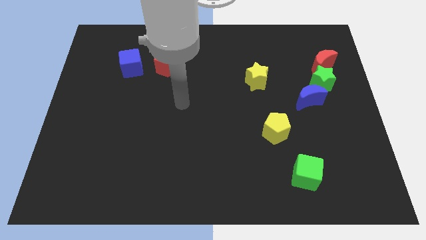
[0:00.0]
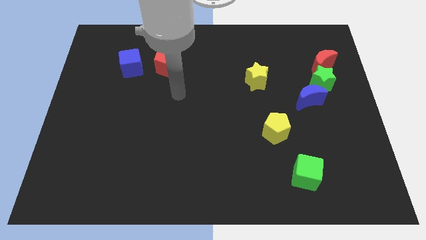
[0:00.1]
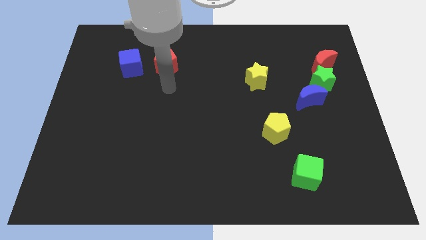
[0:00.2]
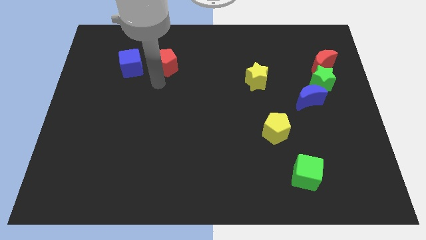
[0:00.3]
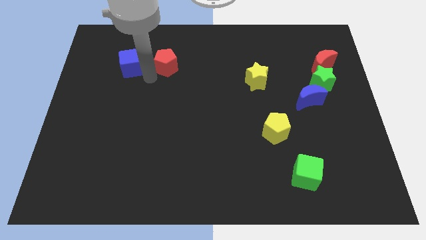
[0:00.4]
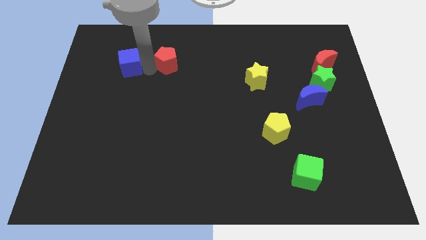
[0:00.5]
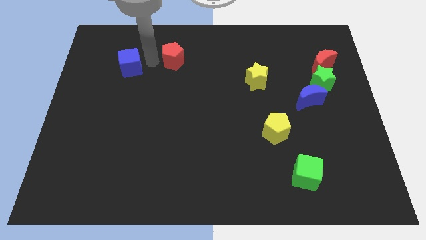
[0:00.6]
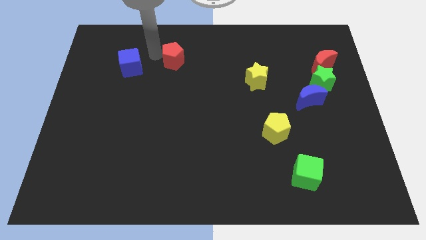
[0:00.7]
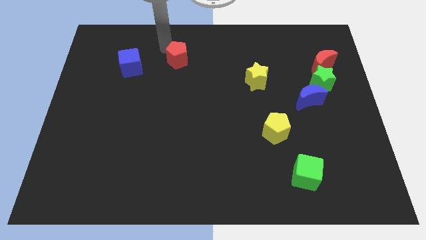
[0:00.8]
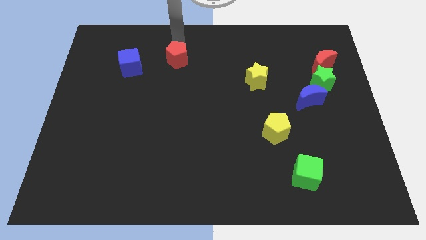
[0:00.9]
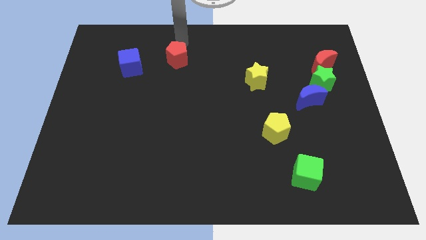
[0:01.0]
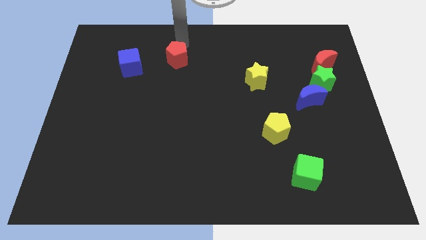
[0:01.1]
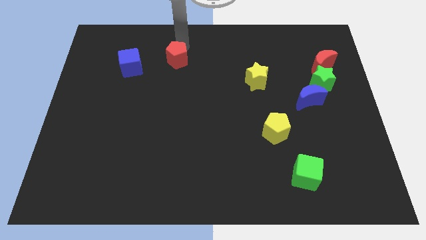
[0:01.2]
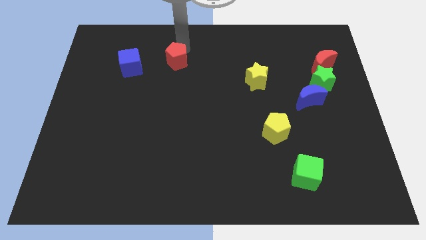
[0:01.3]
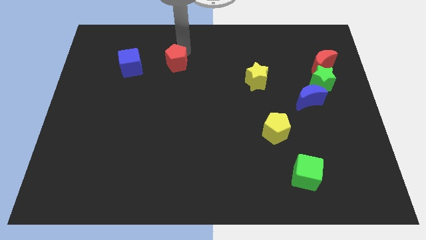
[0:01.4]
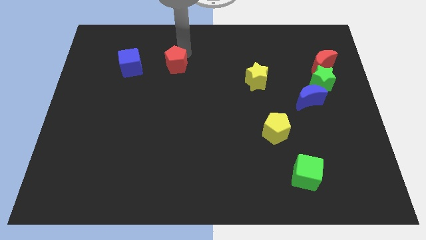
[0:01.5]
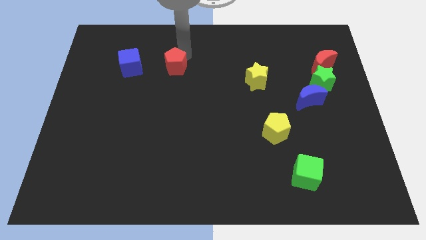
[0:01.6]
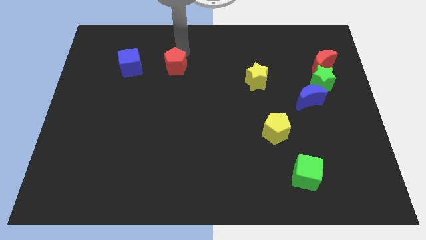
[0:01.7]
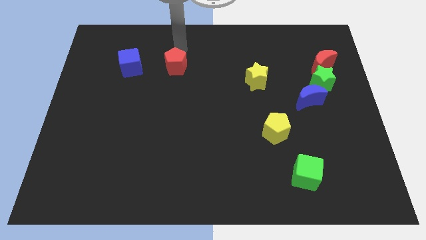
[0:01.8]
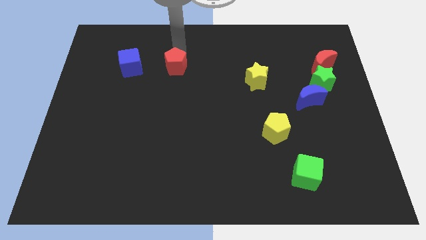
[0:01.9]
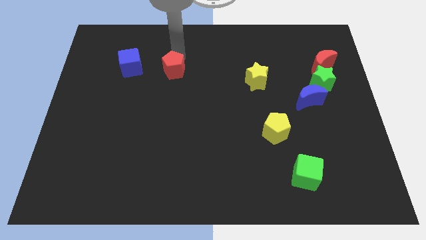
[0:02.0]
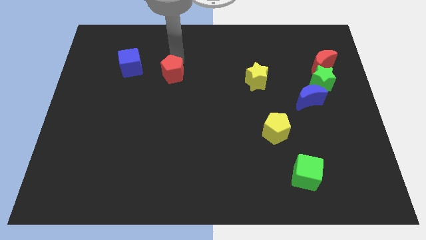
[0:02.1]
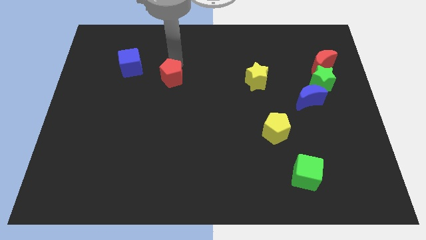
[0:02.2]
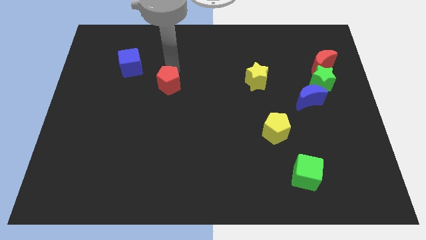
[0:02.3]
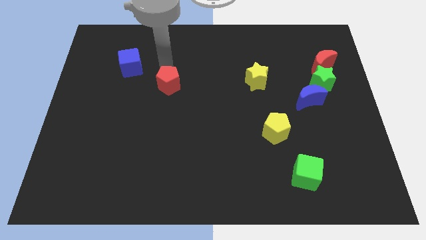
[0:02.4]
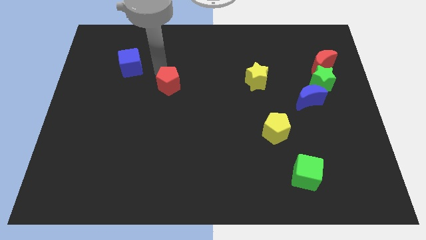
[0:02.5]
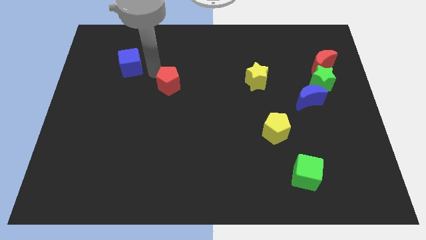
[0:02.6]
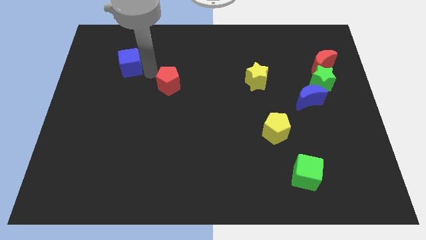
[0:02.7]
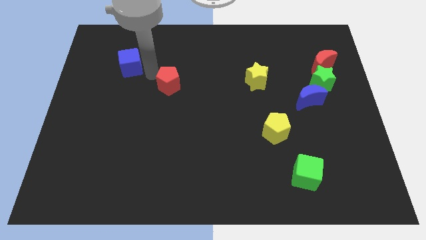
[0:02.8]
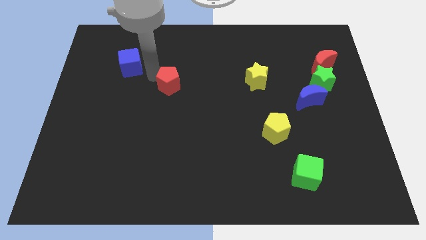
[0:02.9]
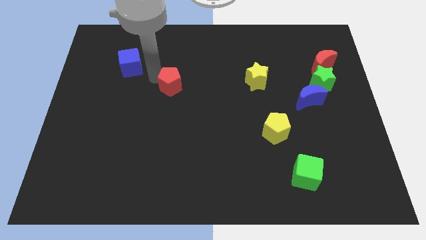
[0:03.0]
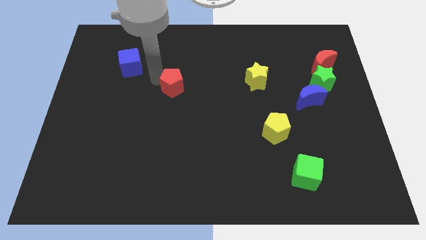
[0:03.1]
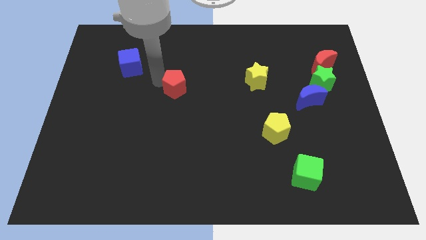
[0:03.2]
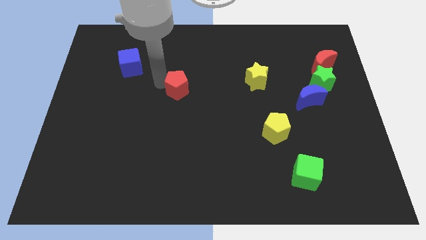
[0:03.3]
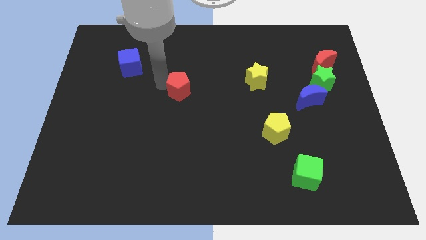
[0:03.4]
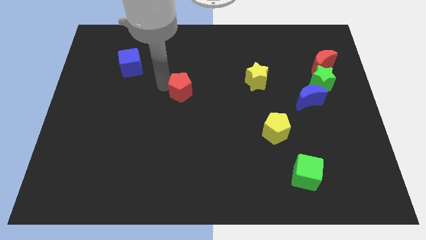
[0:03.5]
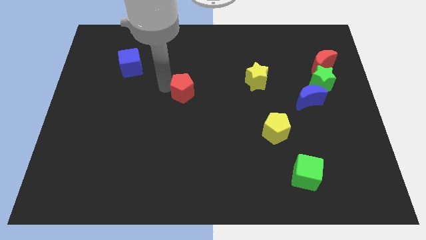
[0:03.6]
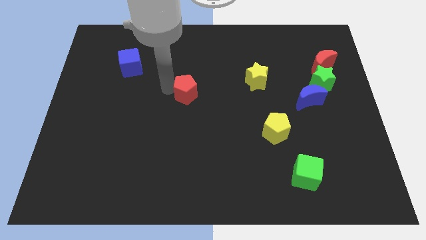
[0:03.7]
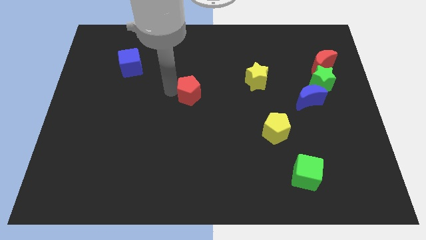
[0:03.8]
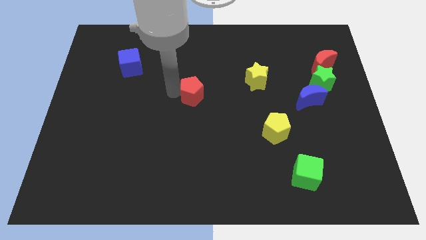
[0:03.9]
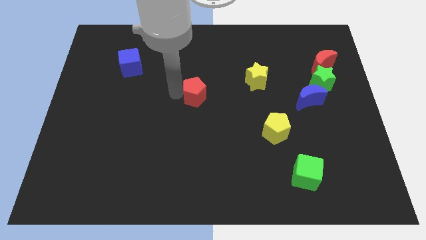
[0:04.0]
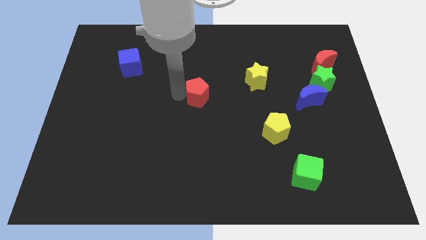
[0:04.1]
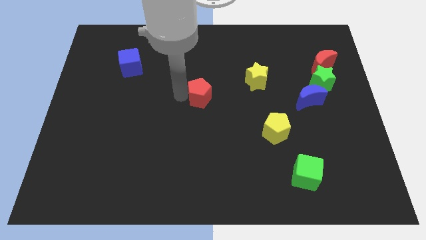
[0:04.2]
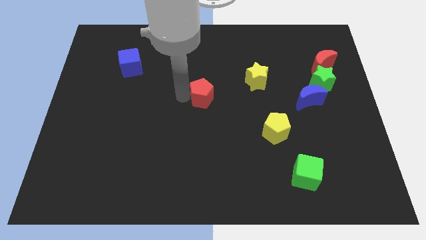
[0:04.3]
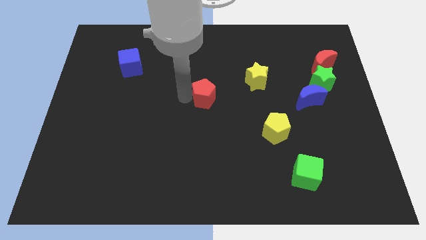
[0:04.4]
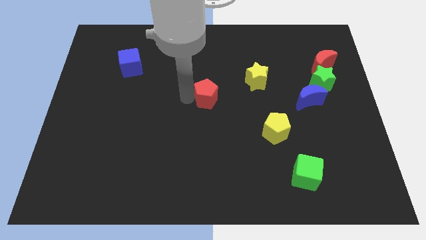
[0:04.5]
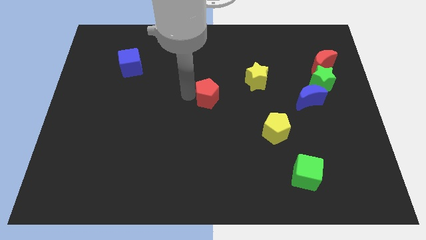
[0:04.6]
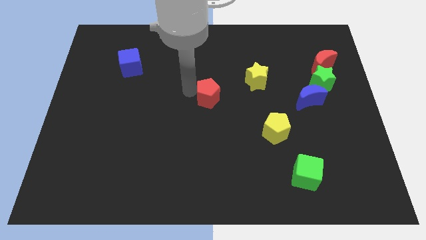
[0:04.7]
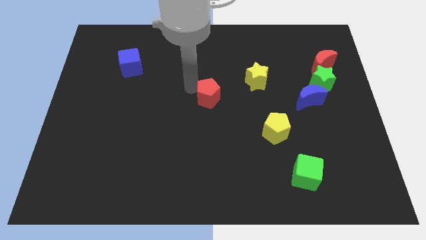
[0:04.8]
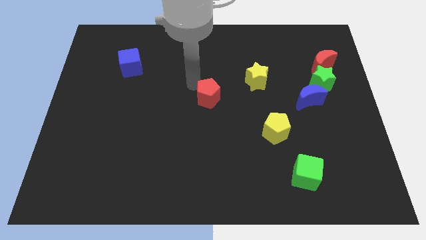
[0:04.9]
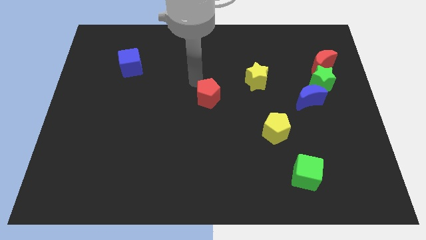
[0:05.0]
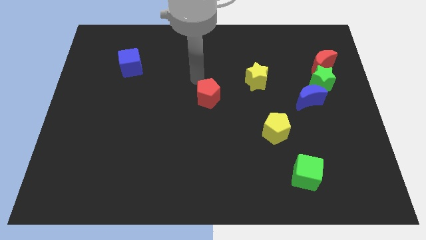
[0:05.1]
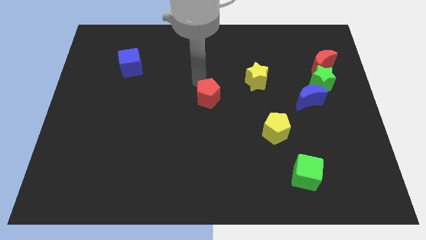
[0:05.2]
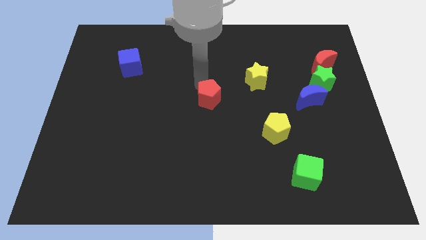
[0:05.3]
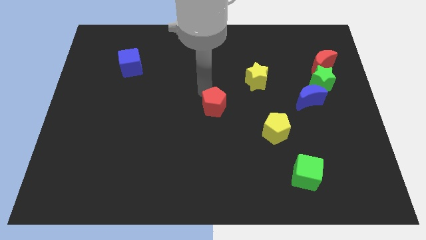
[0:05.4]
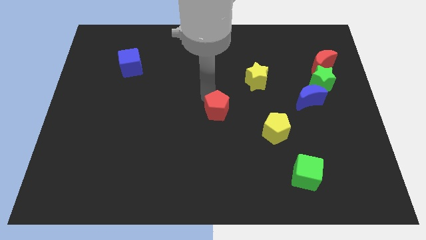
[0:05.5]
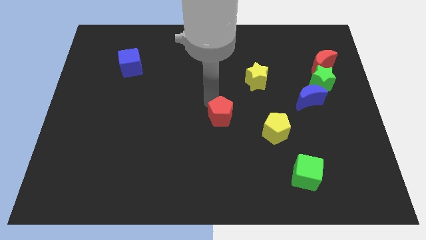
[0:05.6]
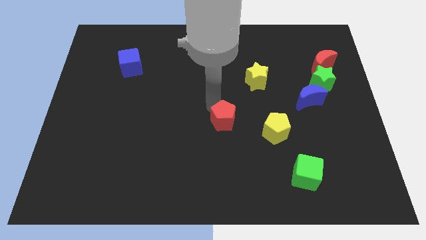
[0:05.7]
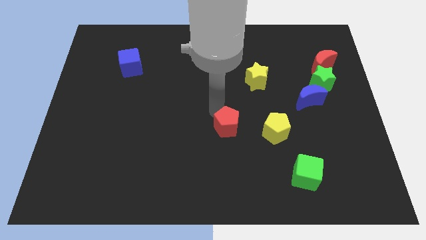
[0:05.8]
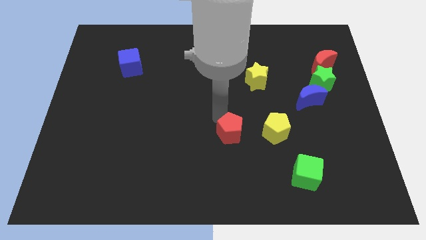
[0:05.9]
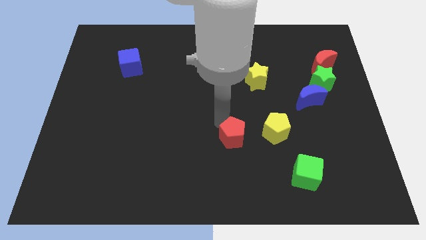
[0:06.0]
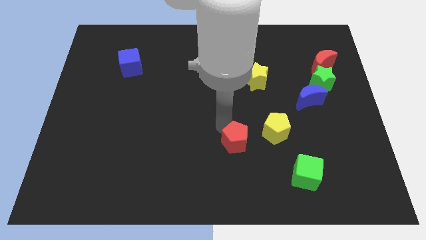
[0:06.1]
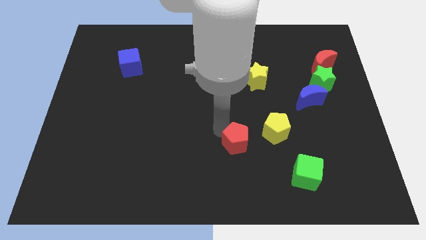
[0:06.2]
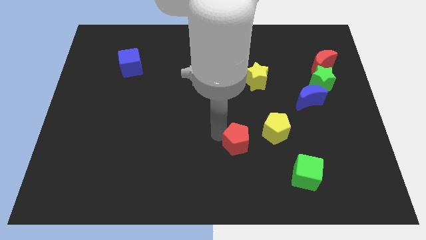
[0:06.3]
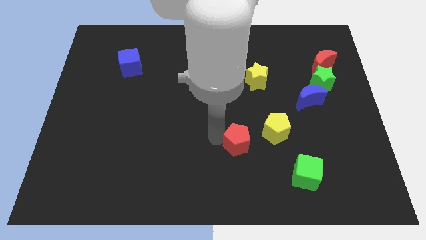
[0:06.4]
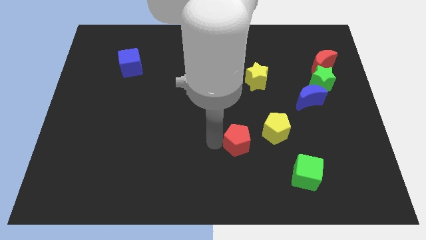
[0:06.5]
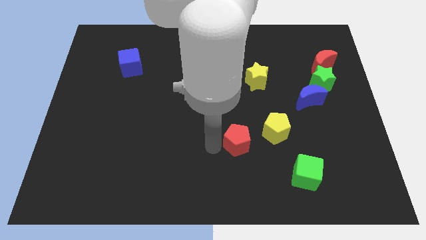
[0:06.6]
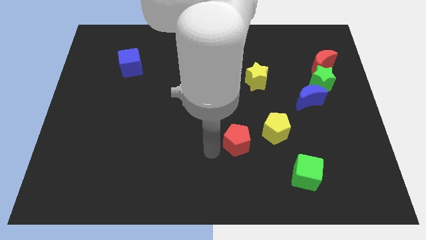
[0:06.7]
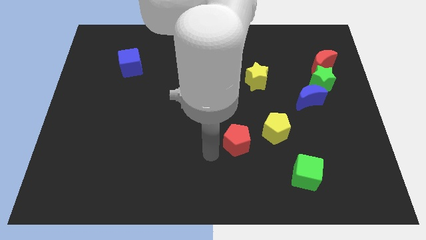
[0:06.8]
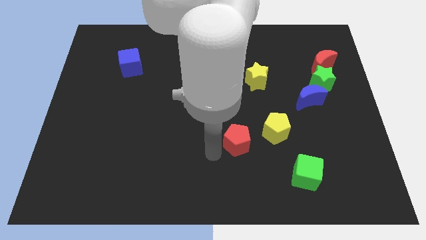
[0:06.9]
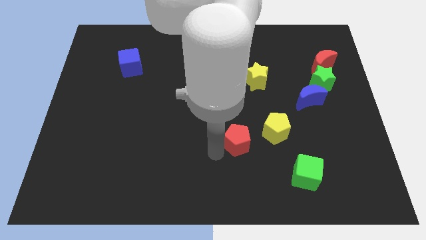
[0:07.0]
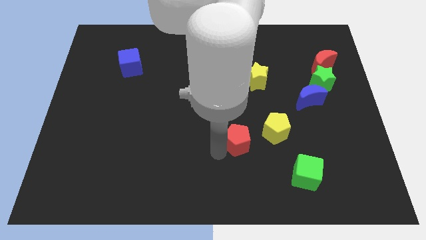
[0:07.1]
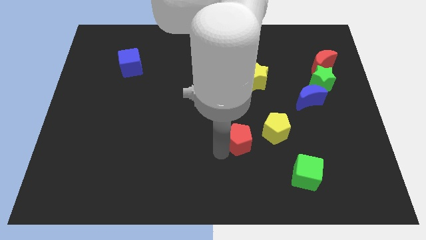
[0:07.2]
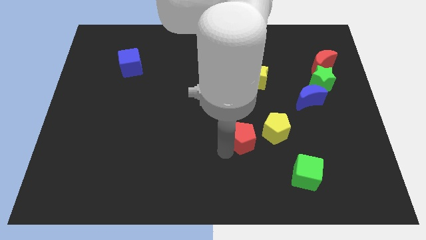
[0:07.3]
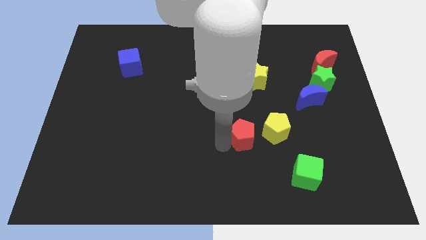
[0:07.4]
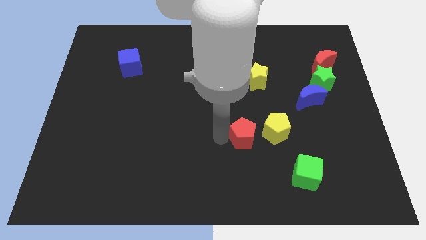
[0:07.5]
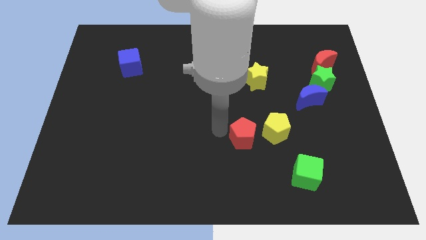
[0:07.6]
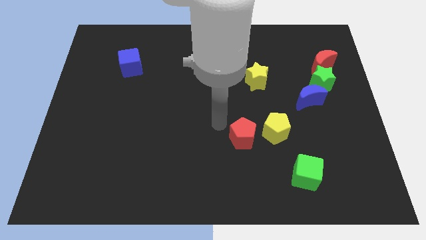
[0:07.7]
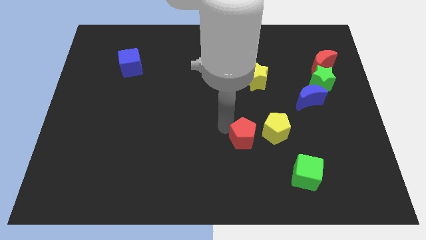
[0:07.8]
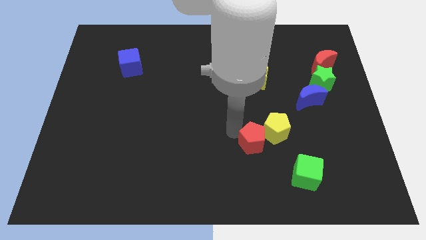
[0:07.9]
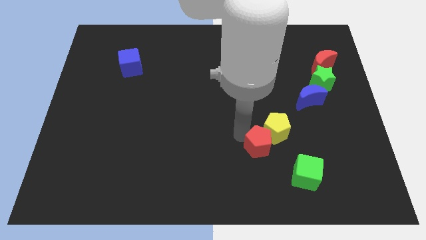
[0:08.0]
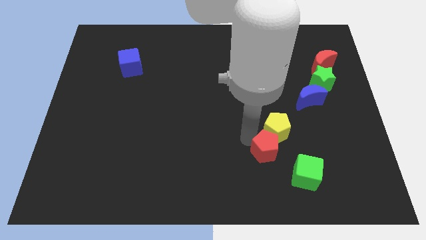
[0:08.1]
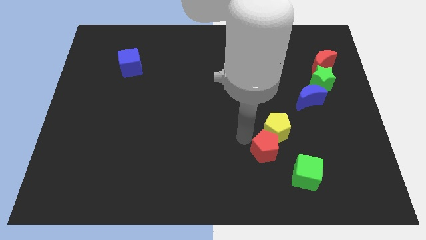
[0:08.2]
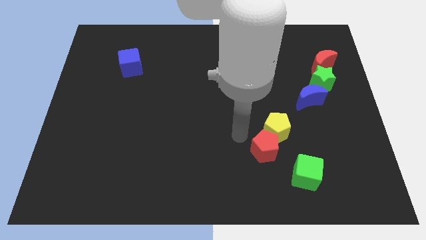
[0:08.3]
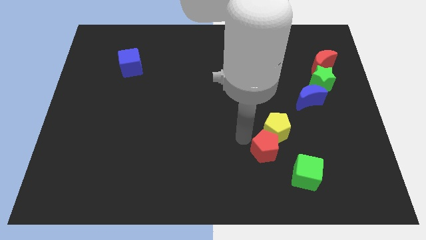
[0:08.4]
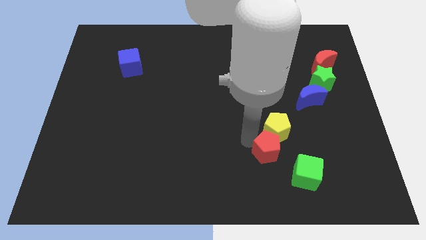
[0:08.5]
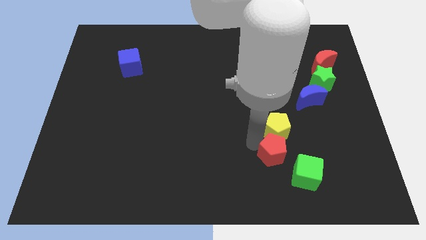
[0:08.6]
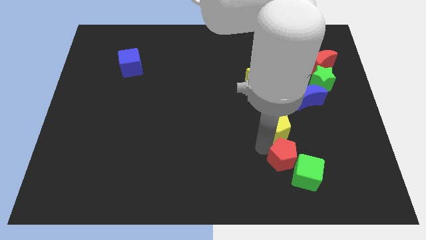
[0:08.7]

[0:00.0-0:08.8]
move the red pentagon close to the green cube
